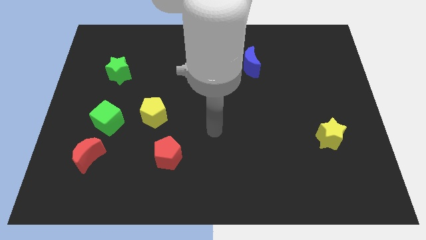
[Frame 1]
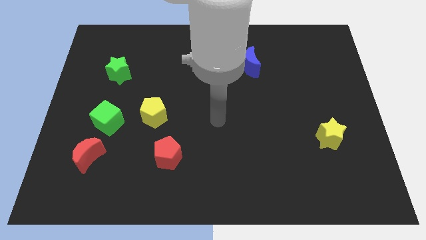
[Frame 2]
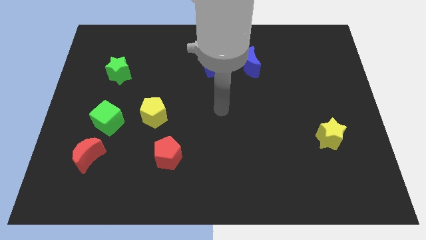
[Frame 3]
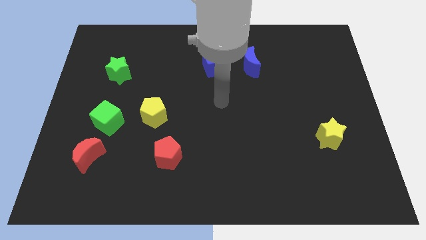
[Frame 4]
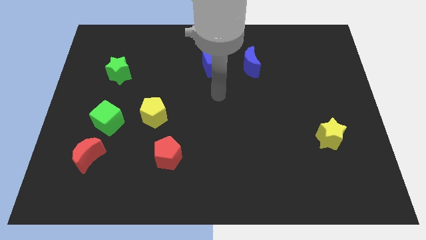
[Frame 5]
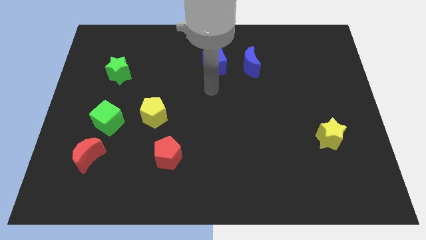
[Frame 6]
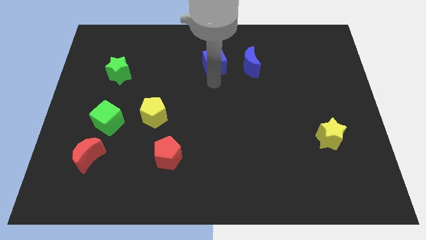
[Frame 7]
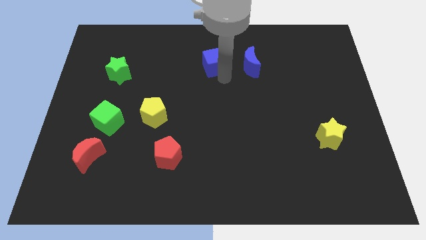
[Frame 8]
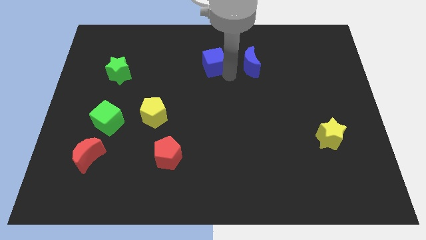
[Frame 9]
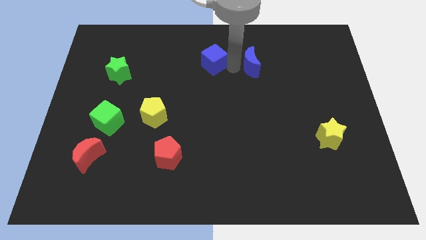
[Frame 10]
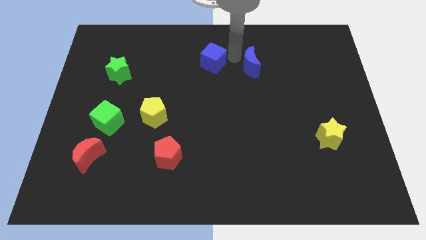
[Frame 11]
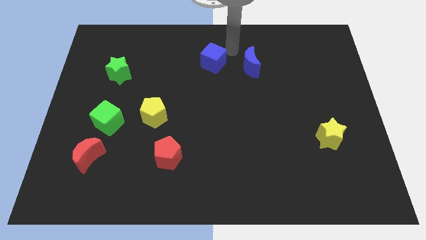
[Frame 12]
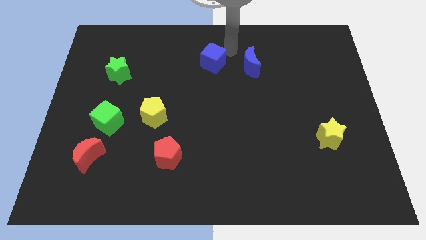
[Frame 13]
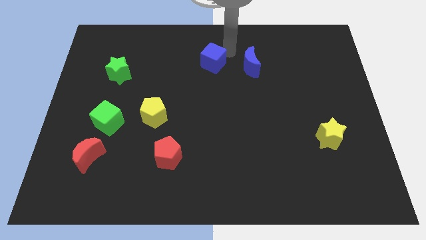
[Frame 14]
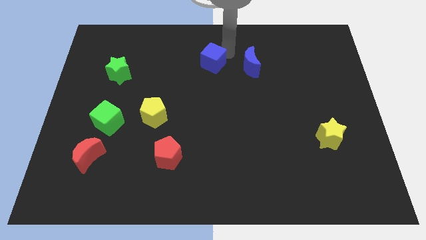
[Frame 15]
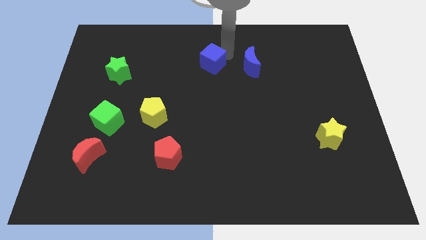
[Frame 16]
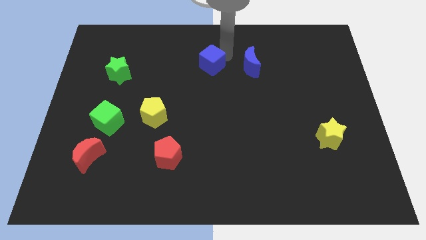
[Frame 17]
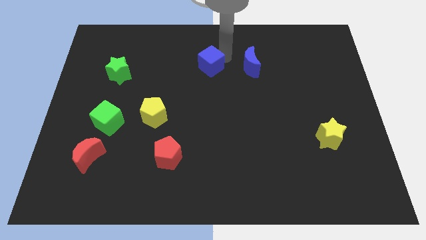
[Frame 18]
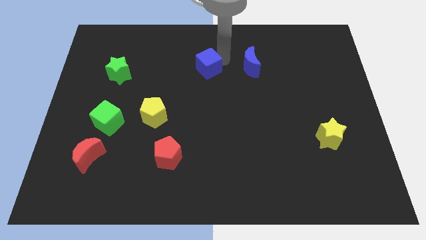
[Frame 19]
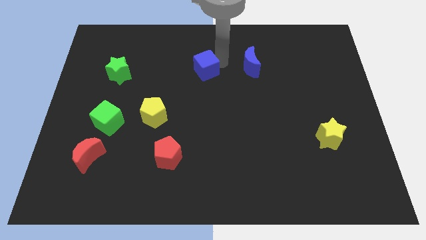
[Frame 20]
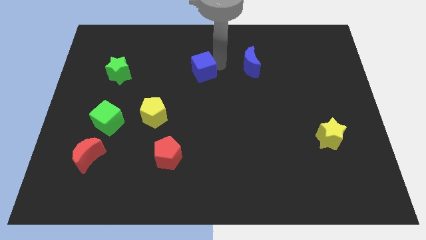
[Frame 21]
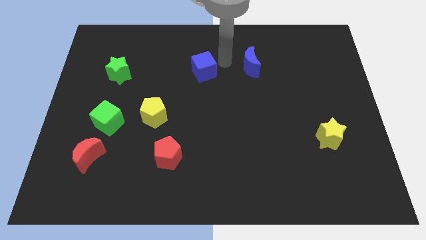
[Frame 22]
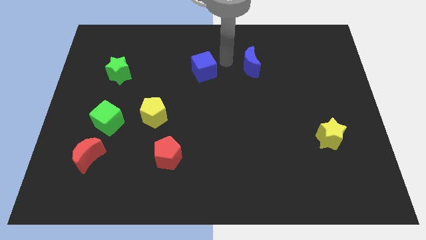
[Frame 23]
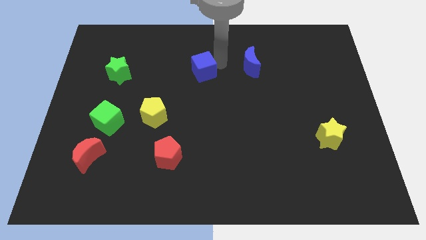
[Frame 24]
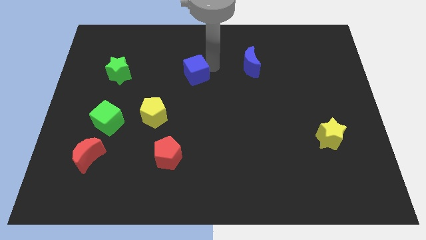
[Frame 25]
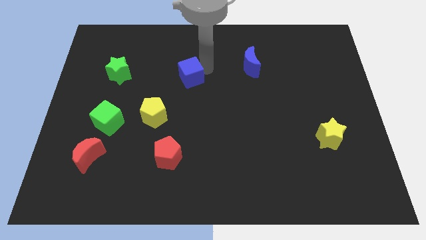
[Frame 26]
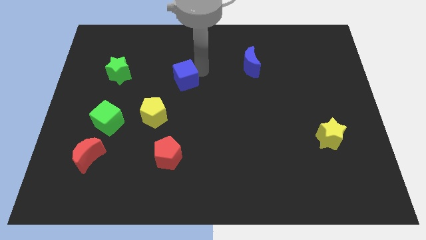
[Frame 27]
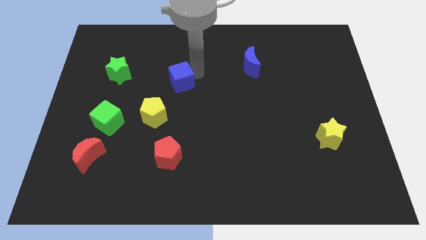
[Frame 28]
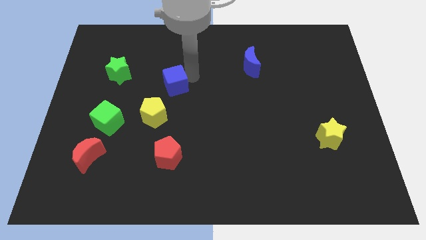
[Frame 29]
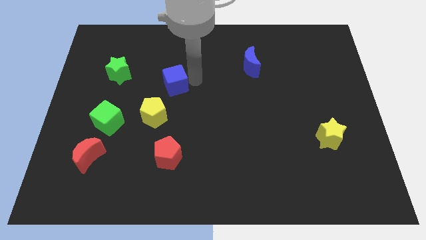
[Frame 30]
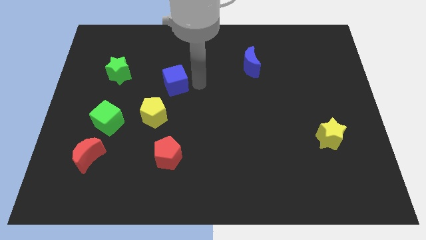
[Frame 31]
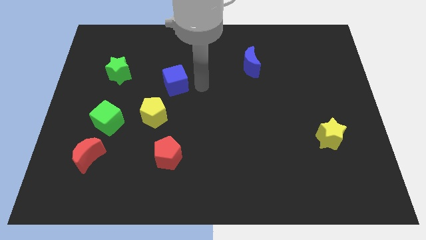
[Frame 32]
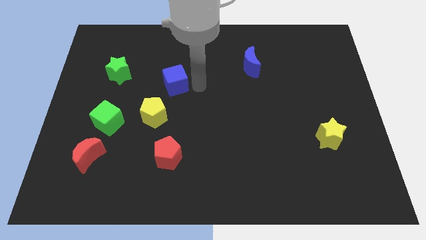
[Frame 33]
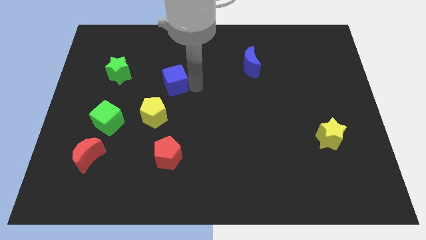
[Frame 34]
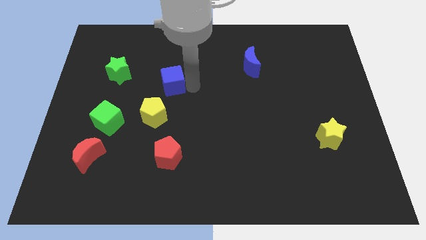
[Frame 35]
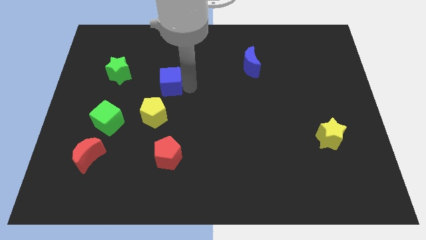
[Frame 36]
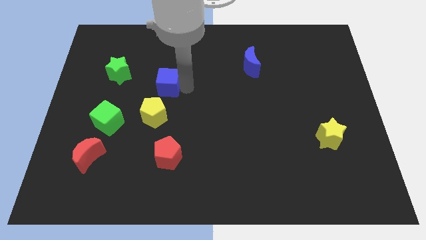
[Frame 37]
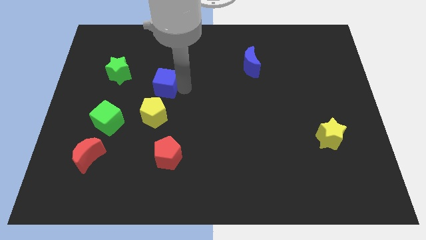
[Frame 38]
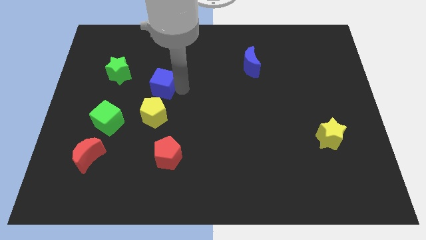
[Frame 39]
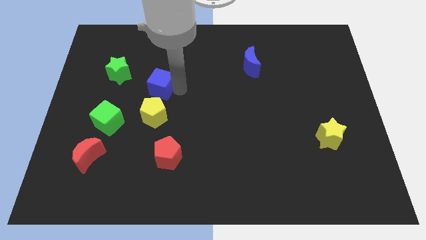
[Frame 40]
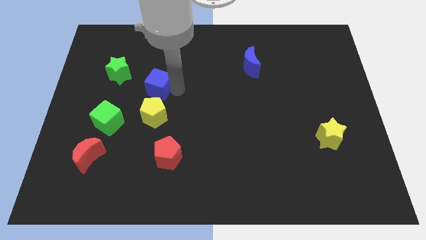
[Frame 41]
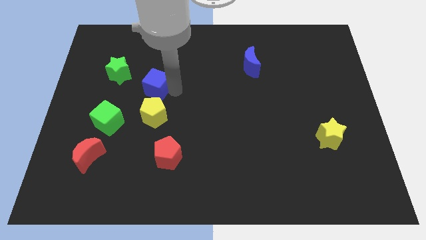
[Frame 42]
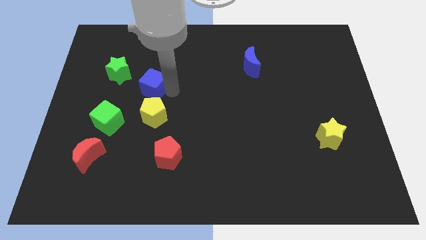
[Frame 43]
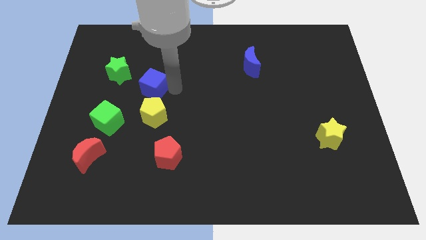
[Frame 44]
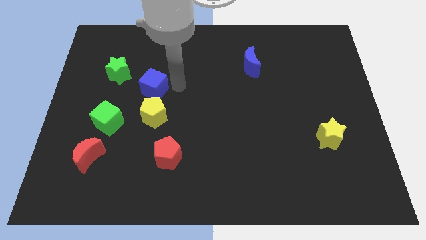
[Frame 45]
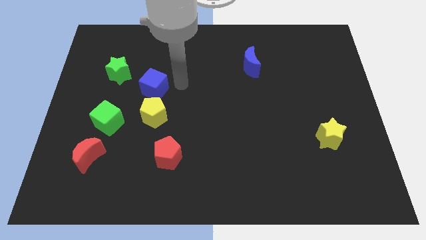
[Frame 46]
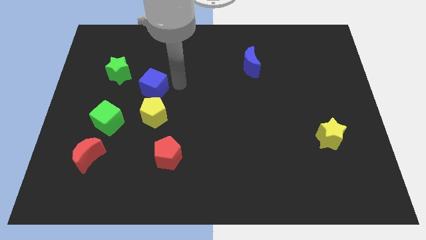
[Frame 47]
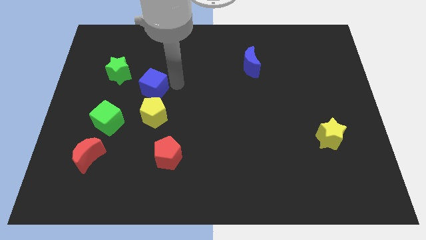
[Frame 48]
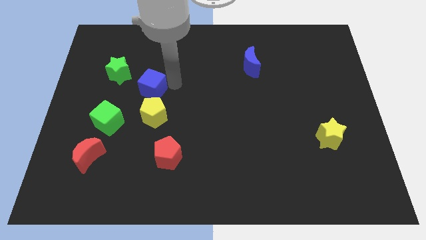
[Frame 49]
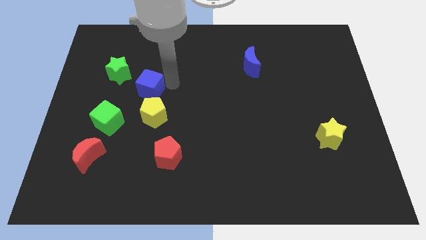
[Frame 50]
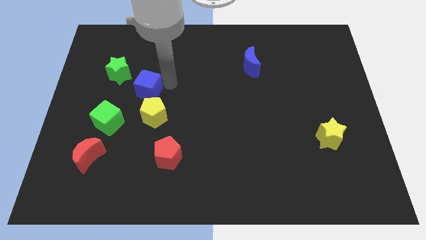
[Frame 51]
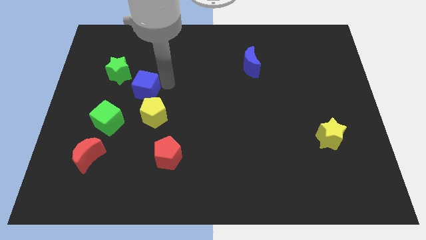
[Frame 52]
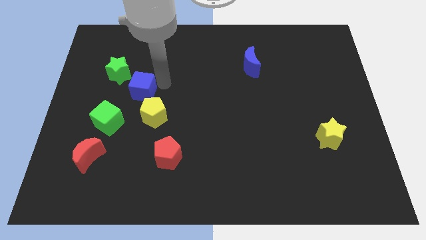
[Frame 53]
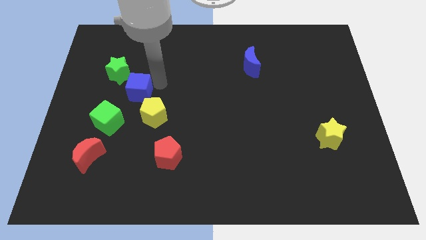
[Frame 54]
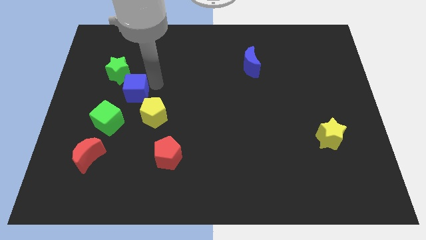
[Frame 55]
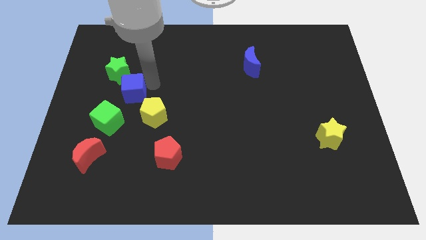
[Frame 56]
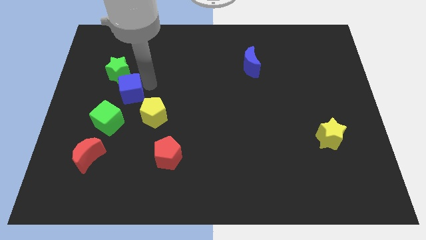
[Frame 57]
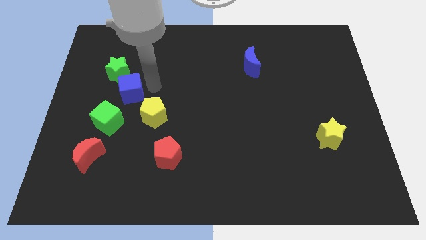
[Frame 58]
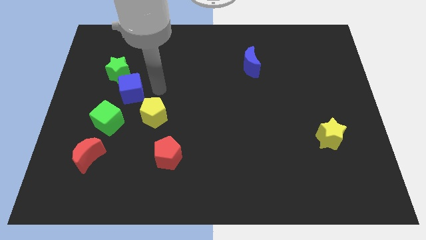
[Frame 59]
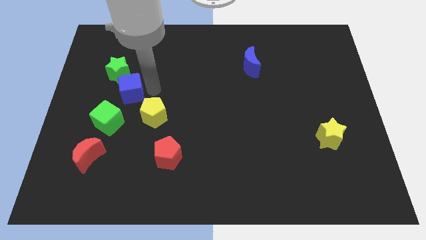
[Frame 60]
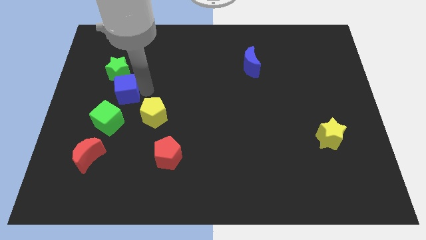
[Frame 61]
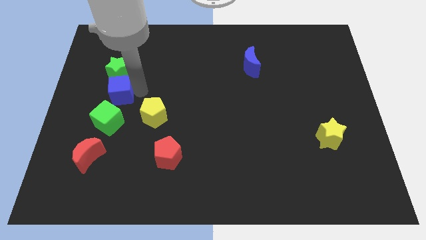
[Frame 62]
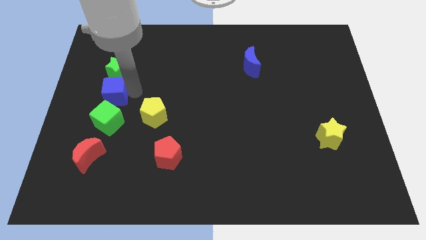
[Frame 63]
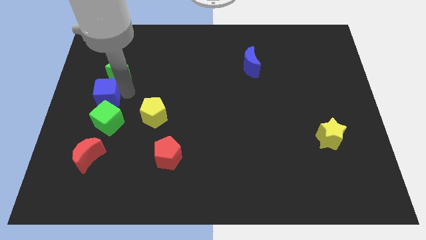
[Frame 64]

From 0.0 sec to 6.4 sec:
slide the blue cube to the center left
